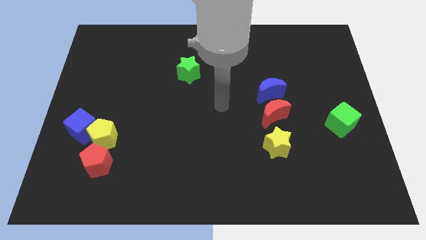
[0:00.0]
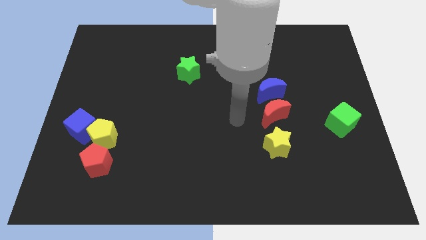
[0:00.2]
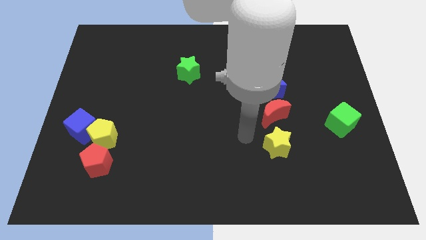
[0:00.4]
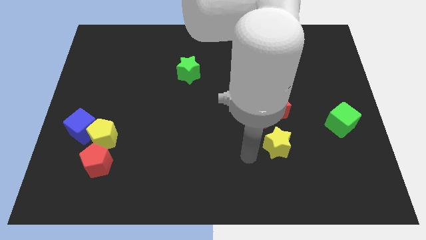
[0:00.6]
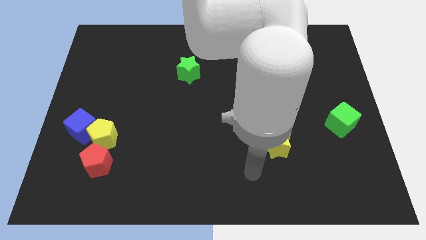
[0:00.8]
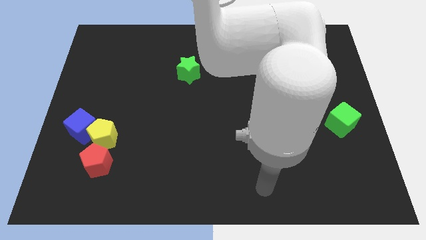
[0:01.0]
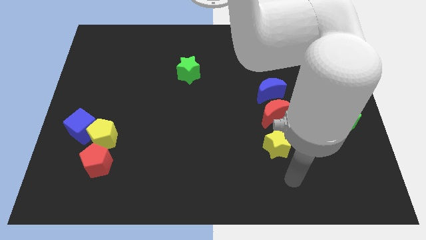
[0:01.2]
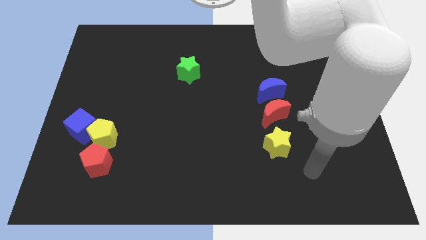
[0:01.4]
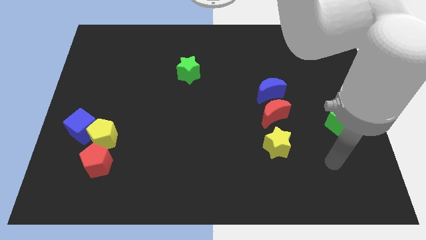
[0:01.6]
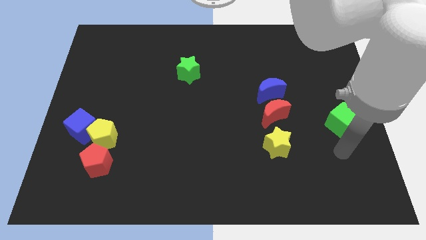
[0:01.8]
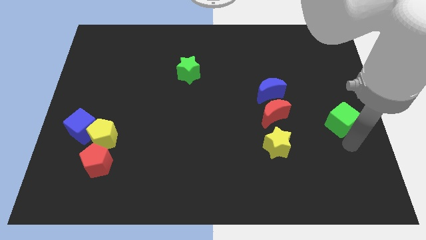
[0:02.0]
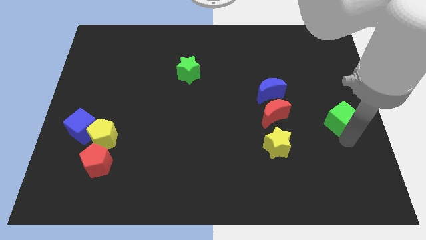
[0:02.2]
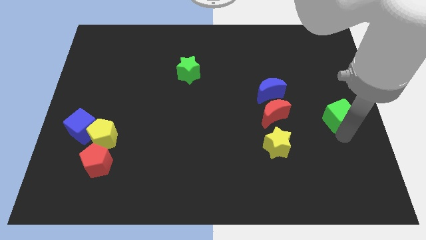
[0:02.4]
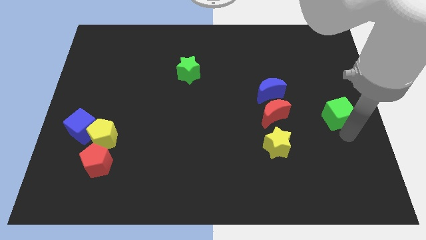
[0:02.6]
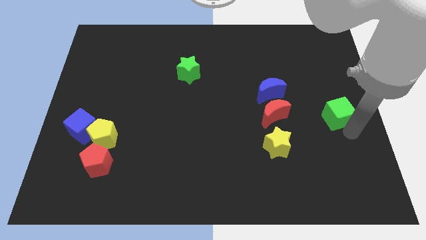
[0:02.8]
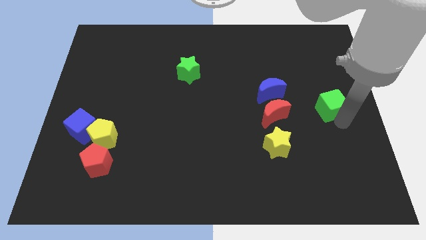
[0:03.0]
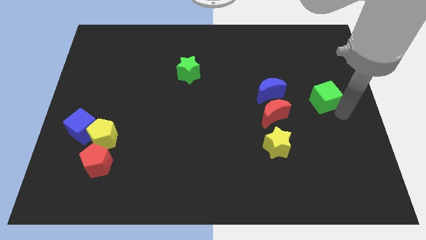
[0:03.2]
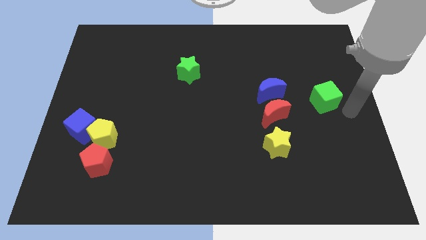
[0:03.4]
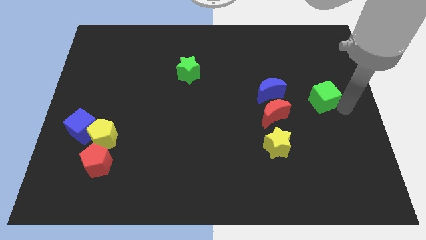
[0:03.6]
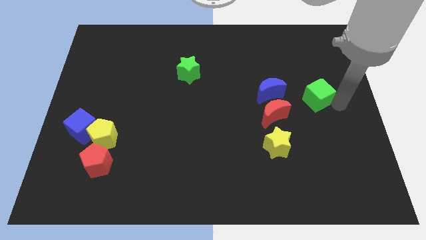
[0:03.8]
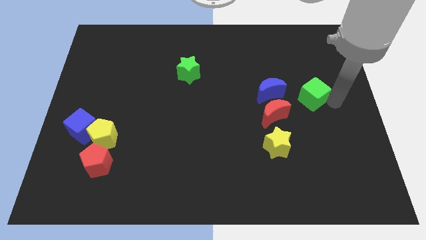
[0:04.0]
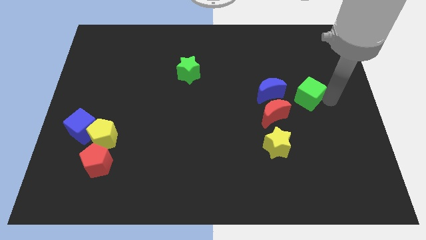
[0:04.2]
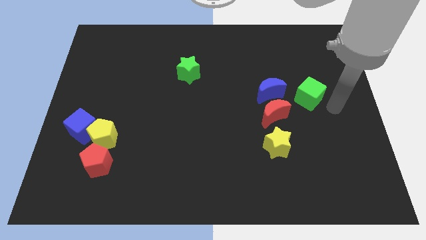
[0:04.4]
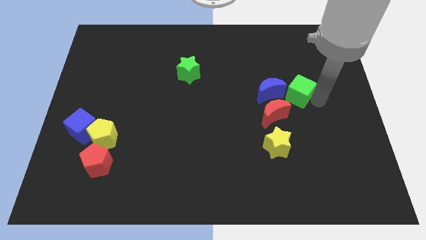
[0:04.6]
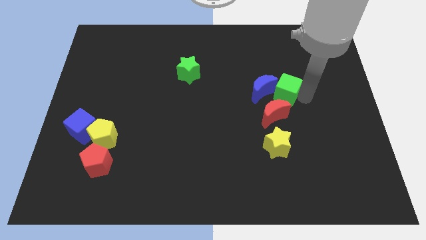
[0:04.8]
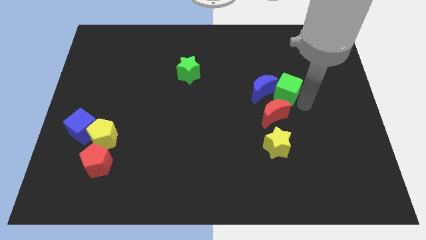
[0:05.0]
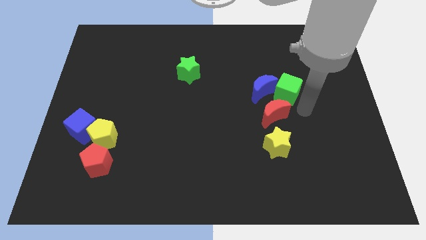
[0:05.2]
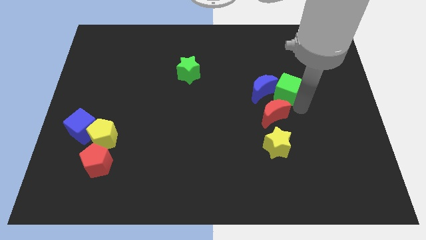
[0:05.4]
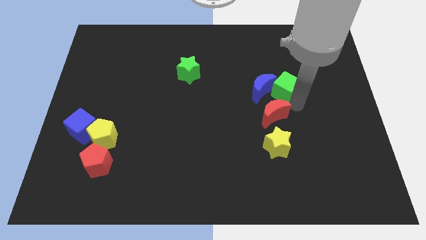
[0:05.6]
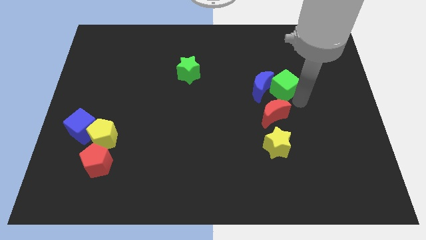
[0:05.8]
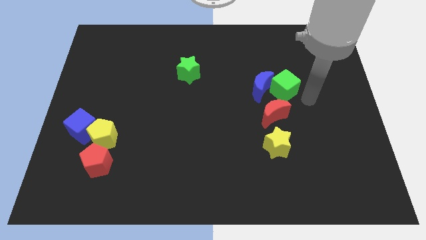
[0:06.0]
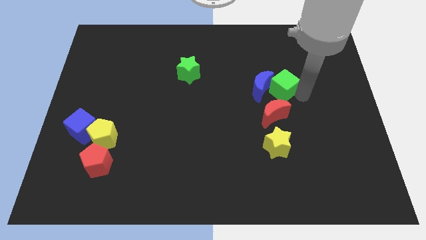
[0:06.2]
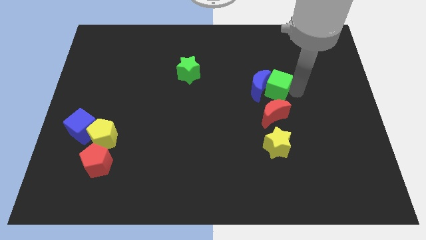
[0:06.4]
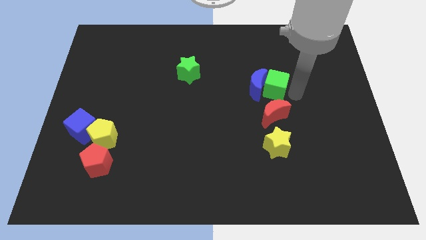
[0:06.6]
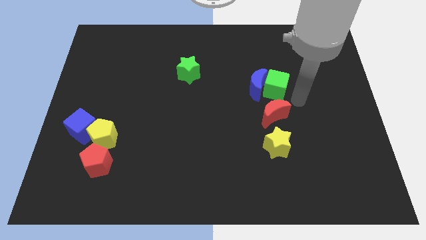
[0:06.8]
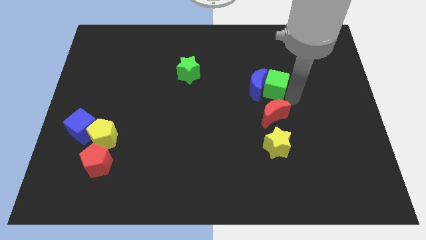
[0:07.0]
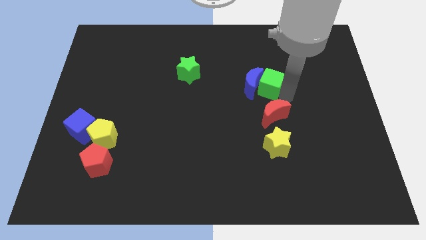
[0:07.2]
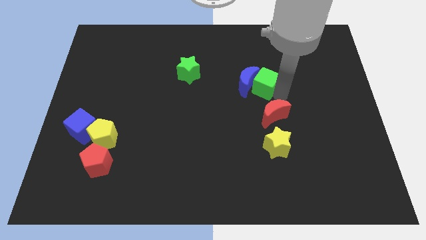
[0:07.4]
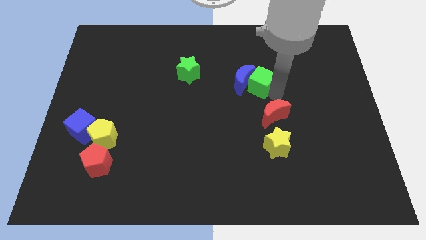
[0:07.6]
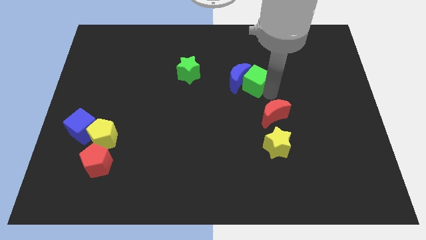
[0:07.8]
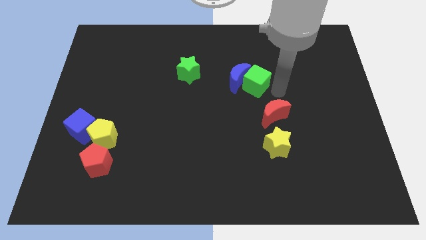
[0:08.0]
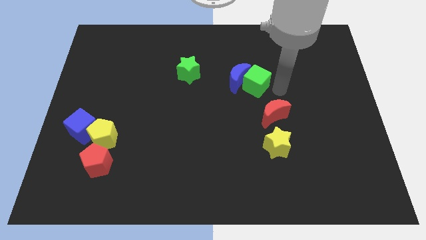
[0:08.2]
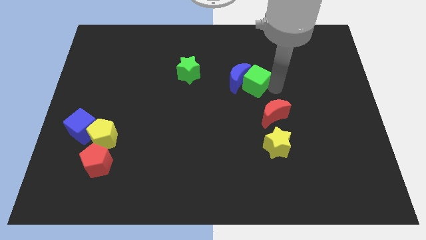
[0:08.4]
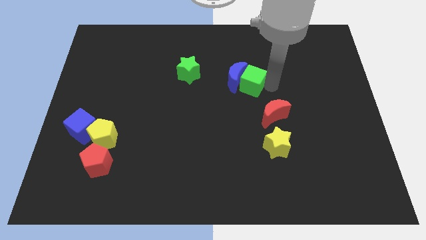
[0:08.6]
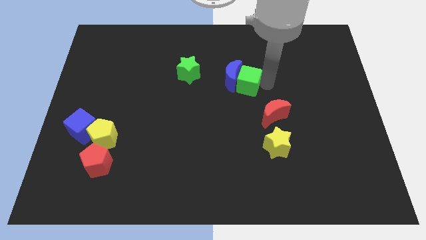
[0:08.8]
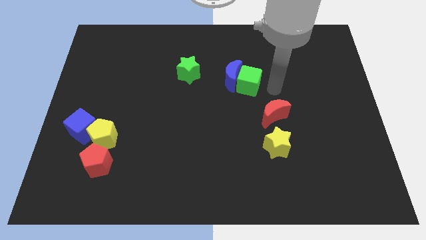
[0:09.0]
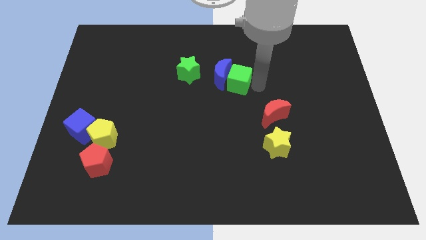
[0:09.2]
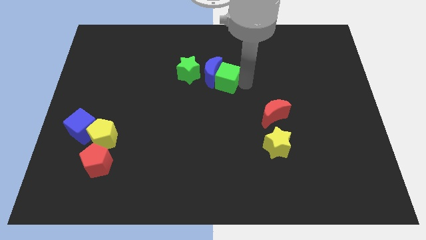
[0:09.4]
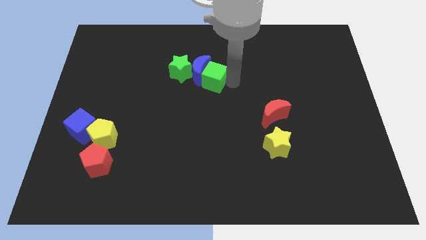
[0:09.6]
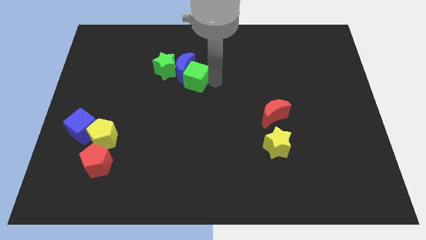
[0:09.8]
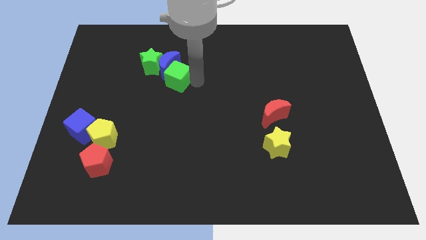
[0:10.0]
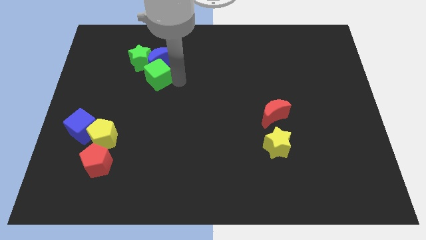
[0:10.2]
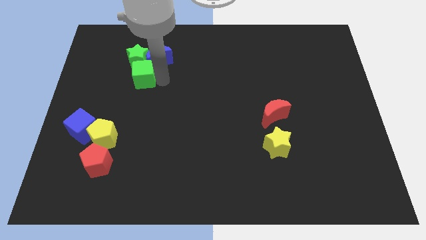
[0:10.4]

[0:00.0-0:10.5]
slide the green cube close to the green star

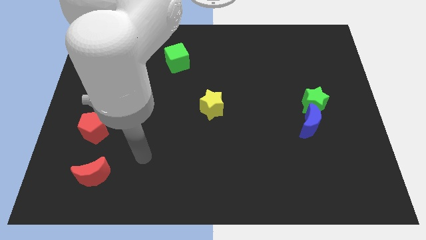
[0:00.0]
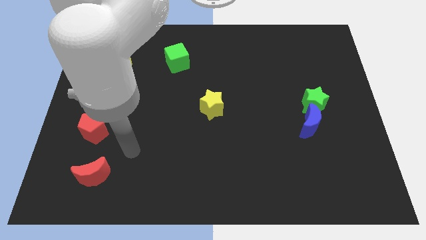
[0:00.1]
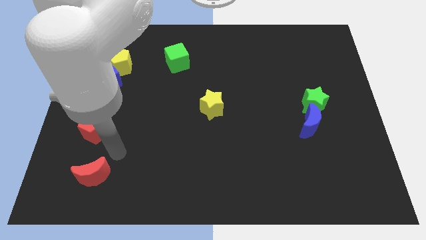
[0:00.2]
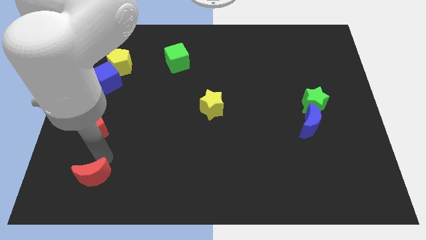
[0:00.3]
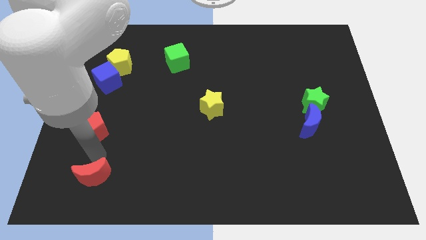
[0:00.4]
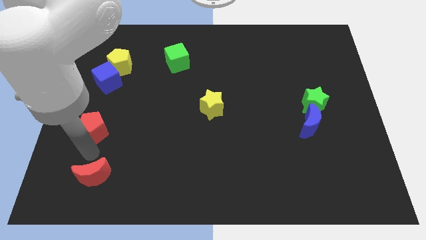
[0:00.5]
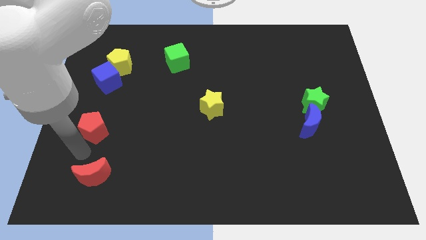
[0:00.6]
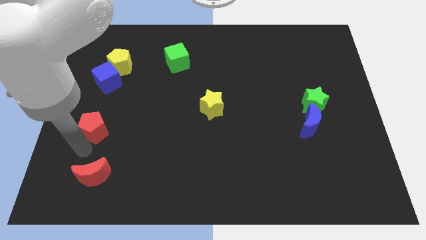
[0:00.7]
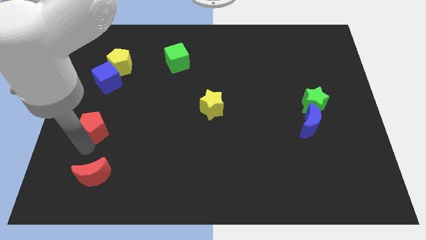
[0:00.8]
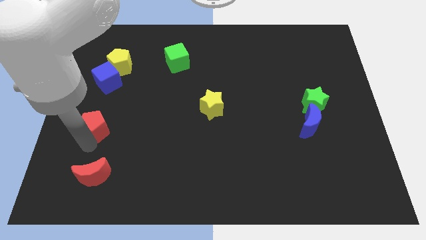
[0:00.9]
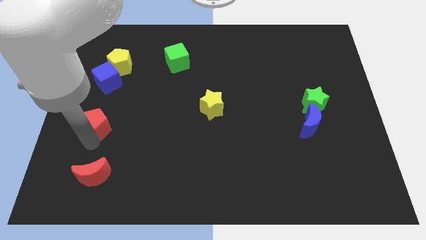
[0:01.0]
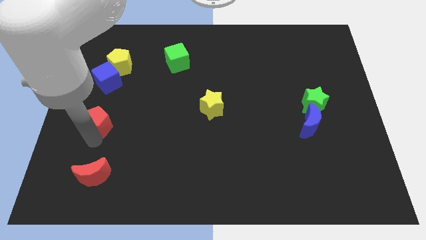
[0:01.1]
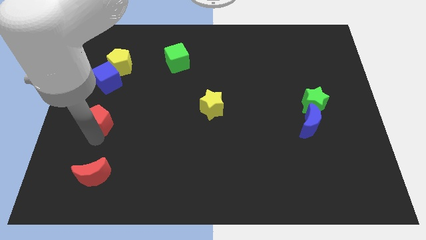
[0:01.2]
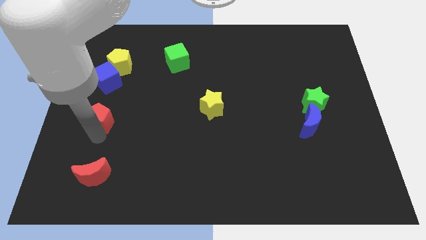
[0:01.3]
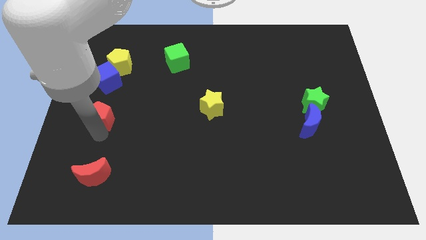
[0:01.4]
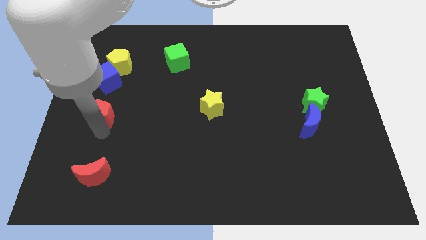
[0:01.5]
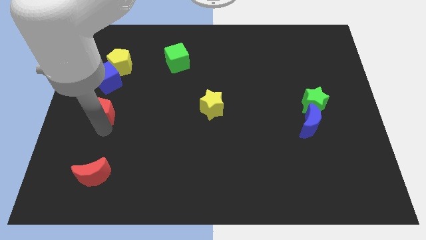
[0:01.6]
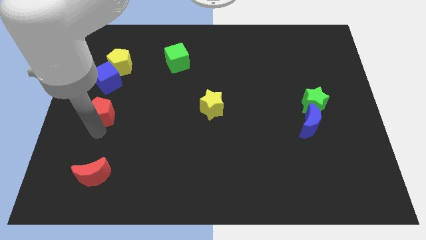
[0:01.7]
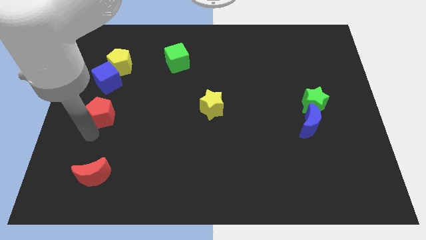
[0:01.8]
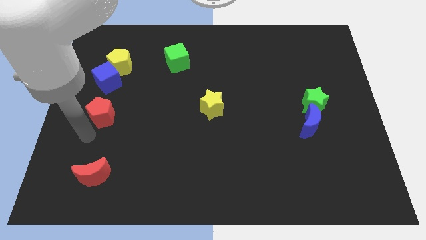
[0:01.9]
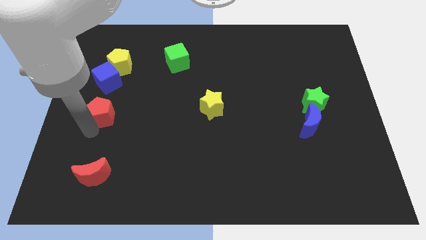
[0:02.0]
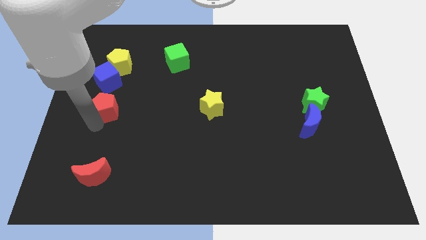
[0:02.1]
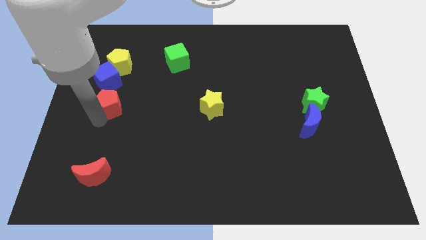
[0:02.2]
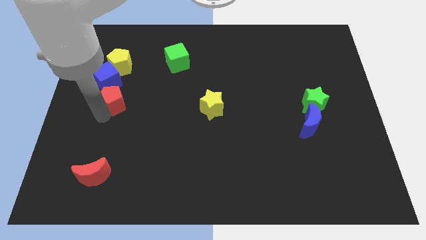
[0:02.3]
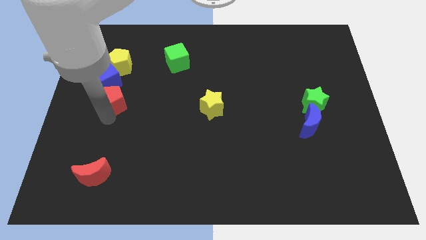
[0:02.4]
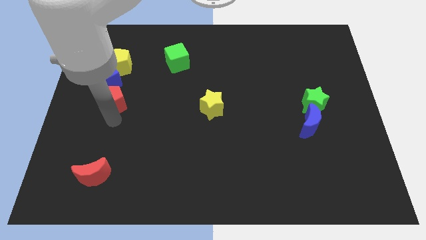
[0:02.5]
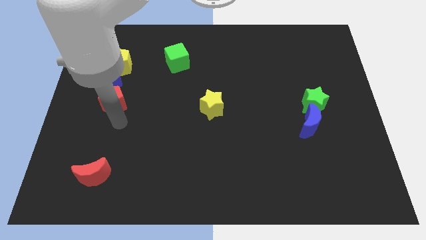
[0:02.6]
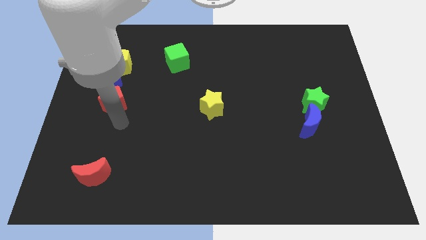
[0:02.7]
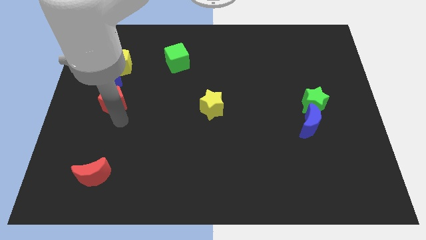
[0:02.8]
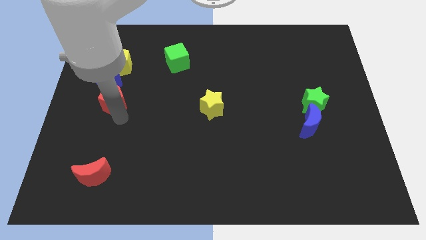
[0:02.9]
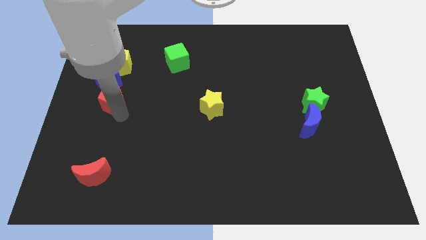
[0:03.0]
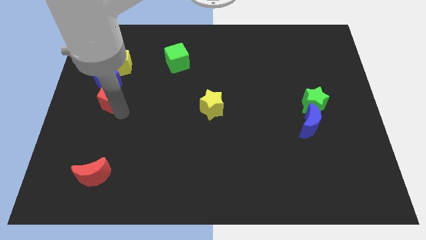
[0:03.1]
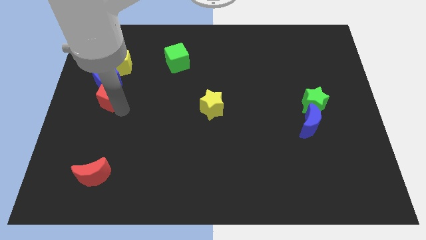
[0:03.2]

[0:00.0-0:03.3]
put the red pentagon to the blue cube
